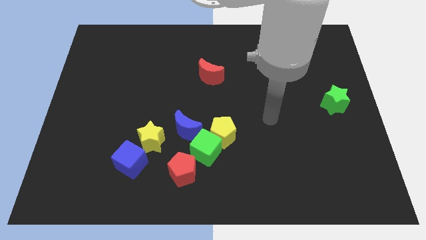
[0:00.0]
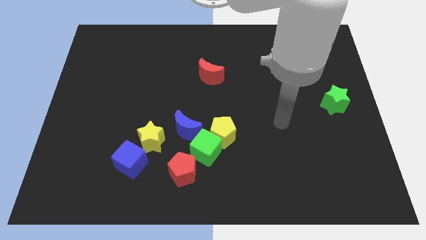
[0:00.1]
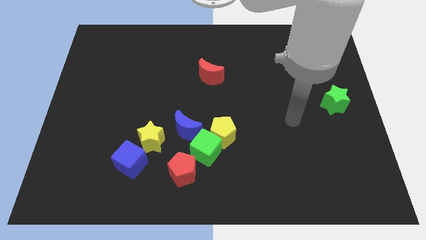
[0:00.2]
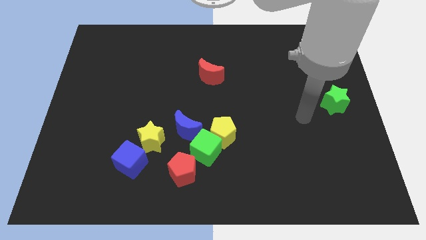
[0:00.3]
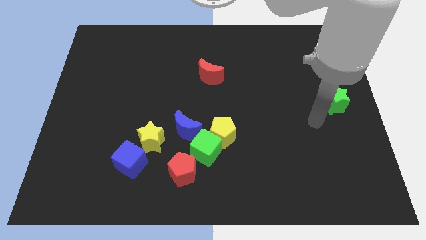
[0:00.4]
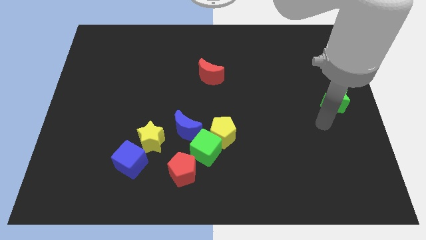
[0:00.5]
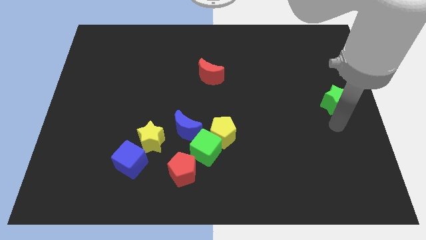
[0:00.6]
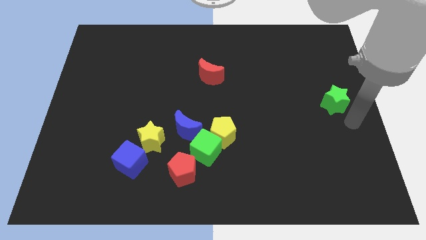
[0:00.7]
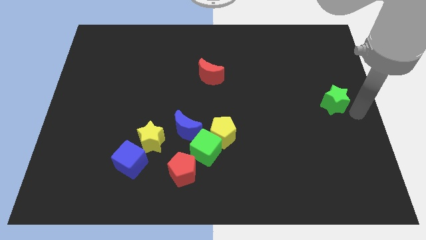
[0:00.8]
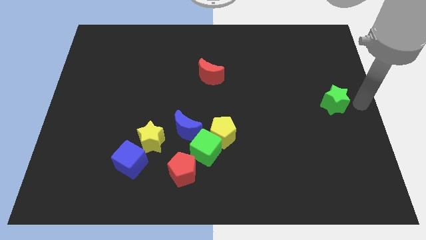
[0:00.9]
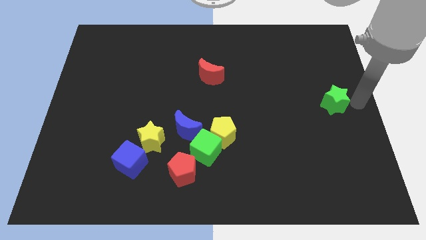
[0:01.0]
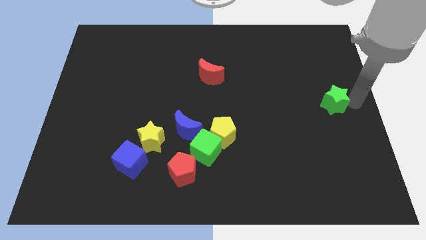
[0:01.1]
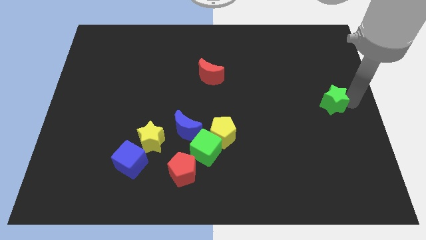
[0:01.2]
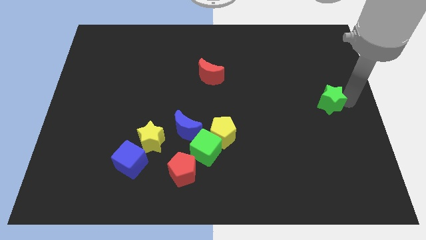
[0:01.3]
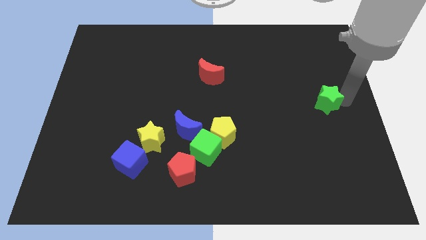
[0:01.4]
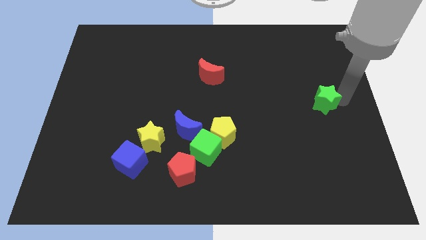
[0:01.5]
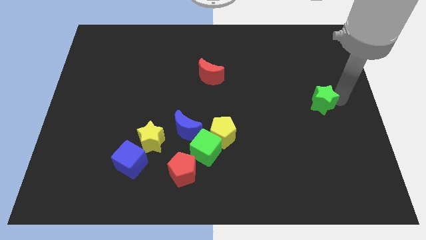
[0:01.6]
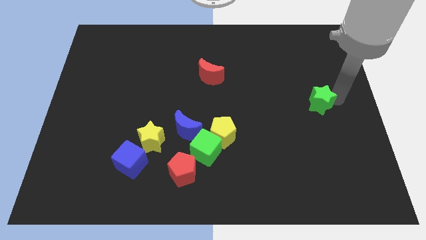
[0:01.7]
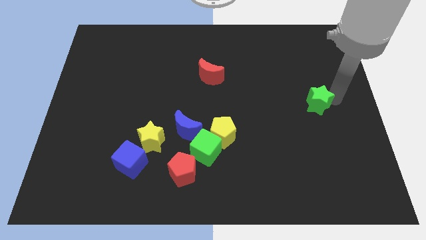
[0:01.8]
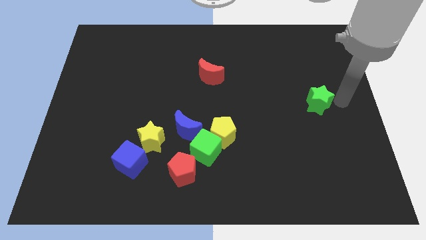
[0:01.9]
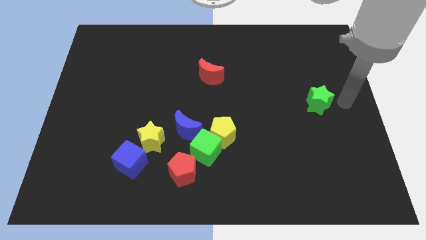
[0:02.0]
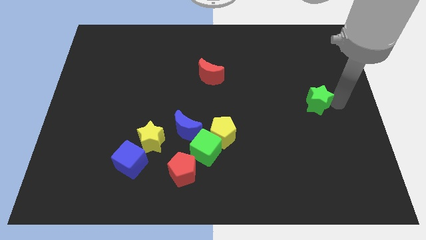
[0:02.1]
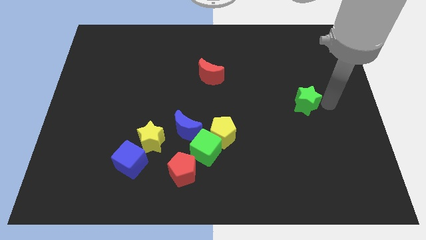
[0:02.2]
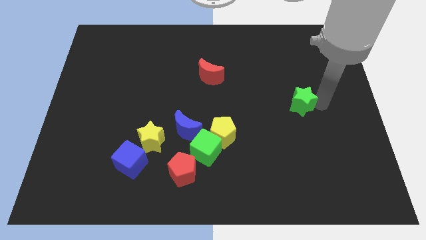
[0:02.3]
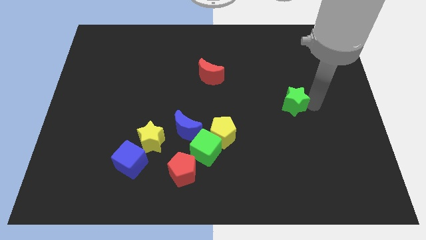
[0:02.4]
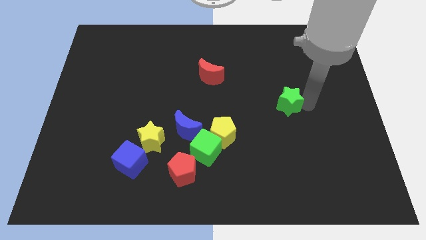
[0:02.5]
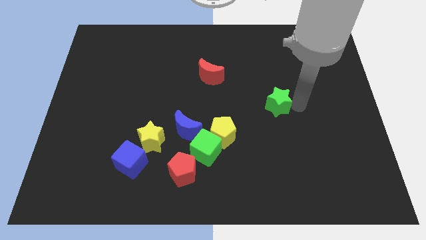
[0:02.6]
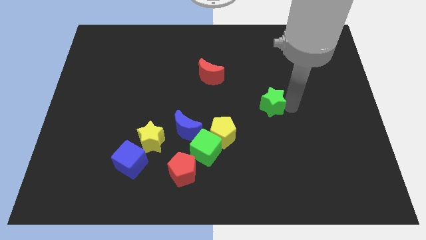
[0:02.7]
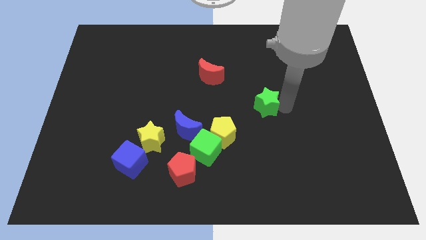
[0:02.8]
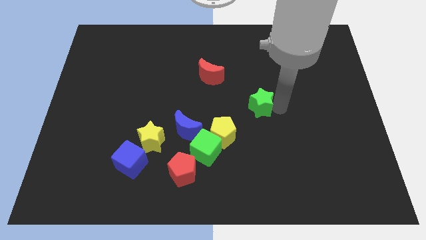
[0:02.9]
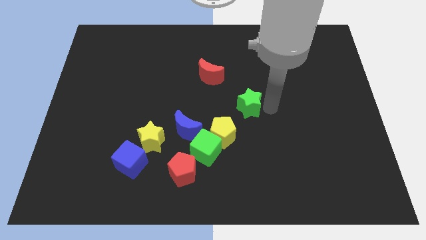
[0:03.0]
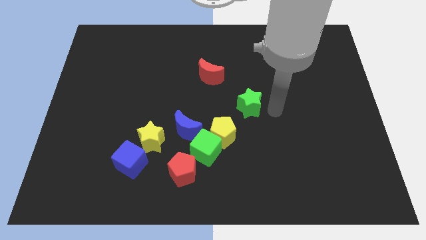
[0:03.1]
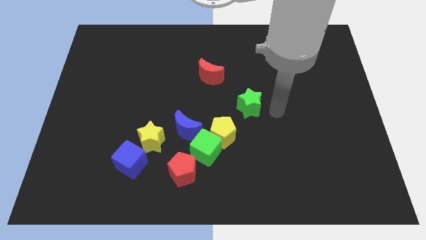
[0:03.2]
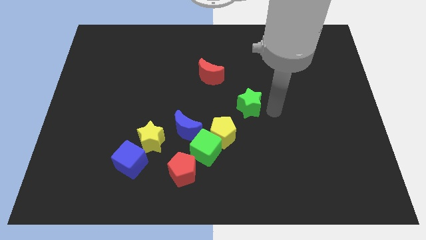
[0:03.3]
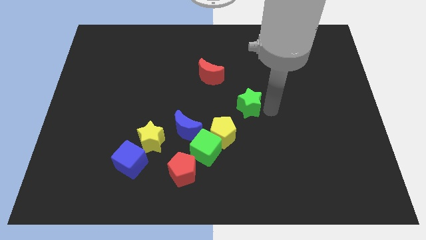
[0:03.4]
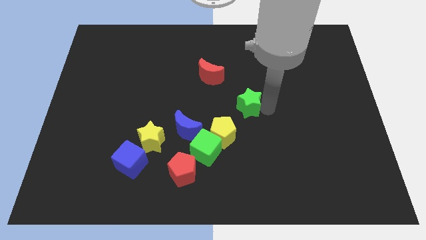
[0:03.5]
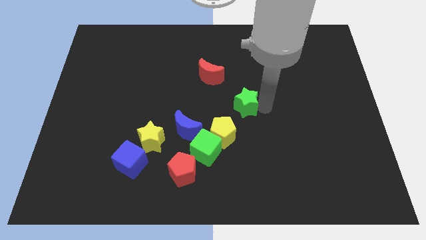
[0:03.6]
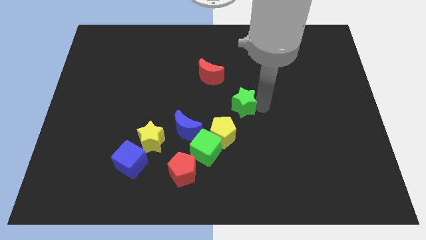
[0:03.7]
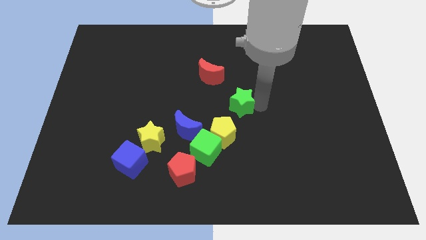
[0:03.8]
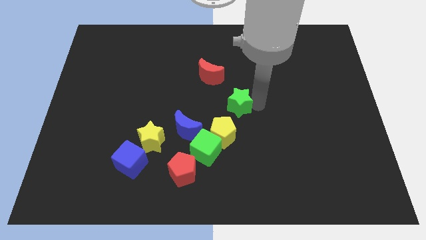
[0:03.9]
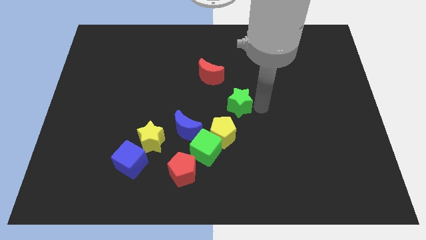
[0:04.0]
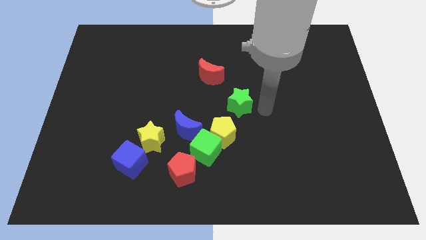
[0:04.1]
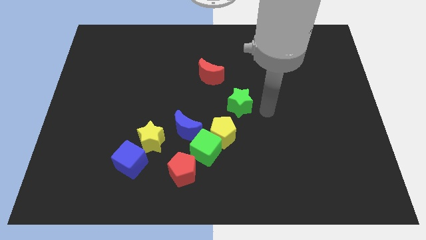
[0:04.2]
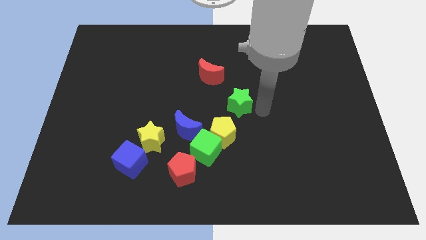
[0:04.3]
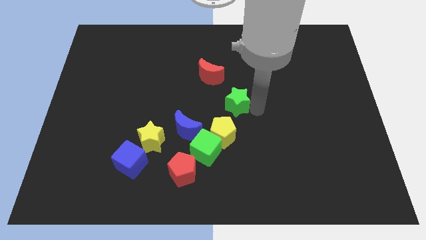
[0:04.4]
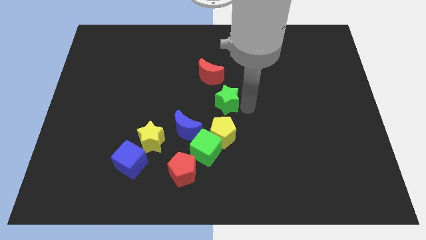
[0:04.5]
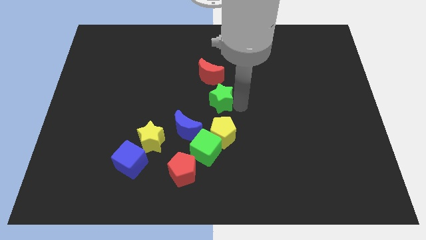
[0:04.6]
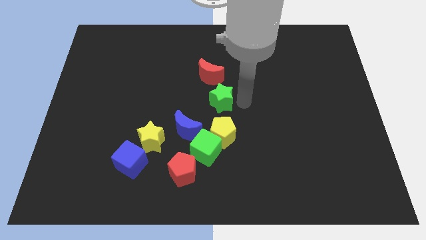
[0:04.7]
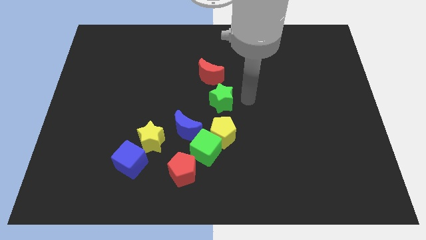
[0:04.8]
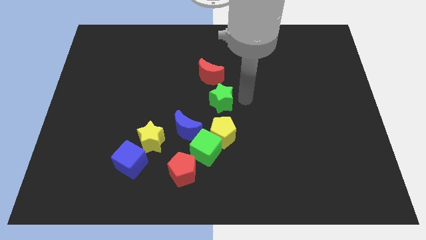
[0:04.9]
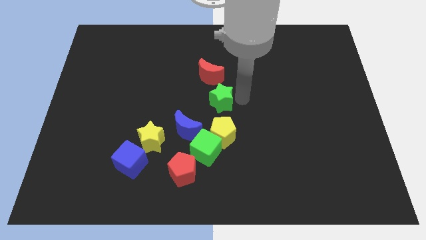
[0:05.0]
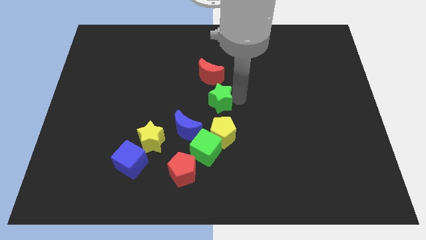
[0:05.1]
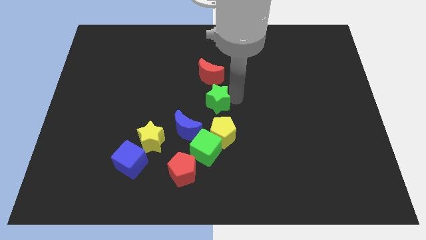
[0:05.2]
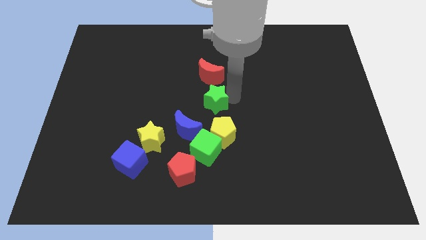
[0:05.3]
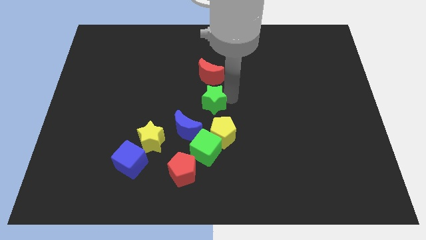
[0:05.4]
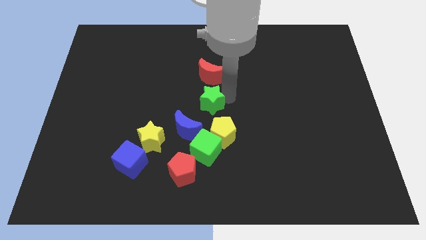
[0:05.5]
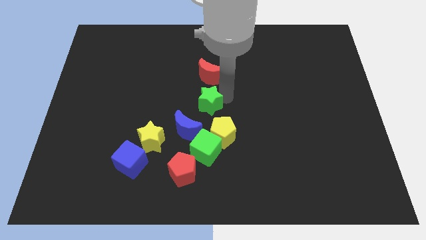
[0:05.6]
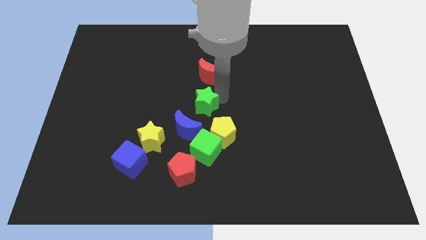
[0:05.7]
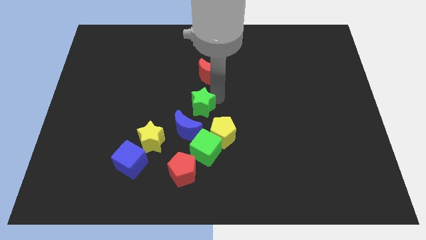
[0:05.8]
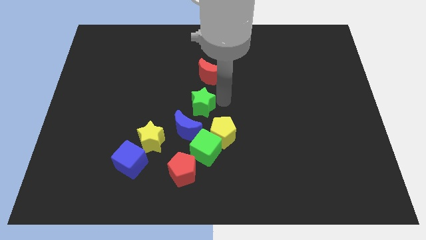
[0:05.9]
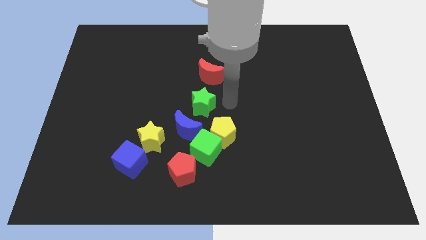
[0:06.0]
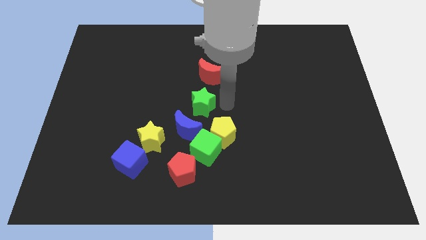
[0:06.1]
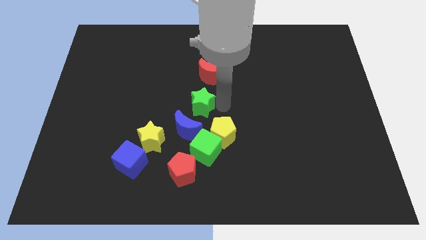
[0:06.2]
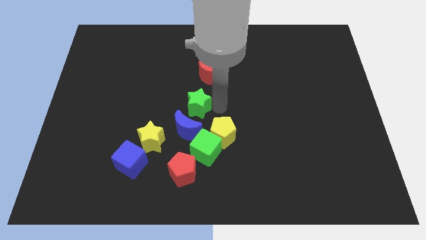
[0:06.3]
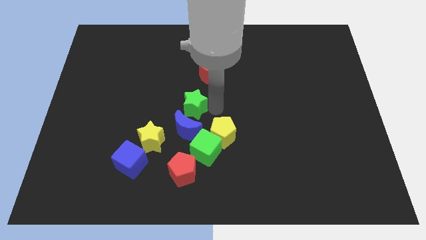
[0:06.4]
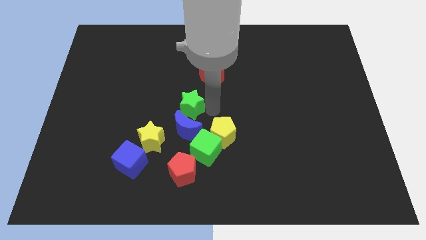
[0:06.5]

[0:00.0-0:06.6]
move the green star to the top left side of the blue moon
